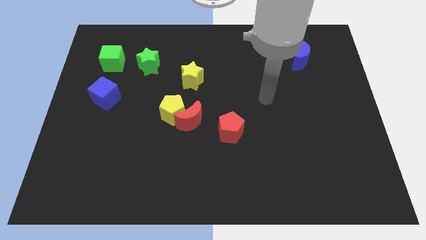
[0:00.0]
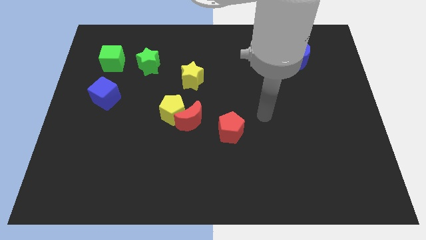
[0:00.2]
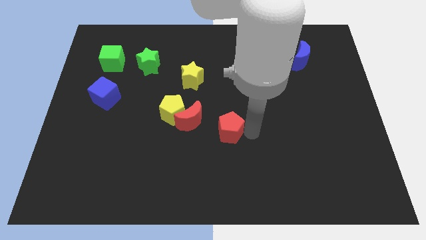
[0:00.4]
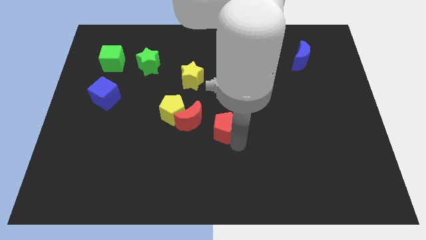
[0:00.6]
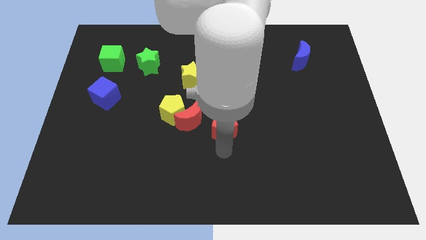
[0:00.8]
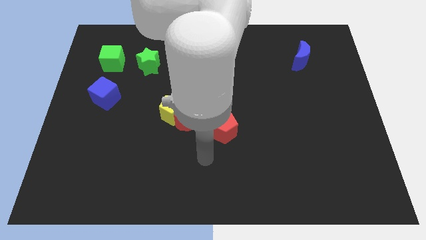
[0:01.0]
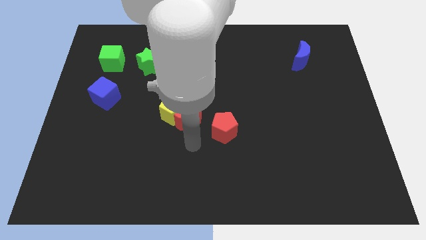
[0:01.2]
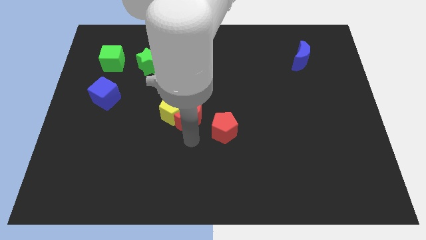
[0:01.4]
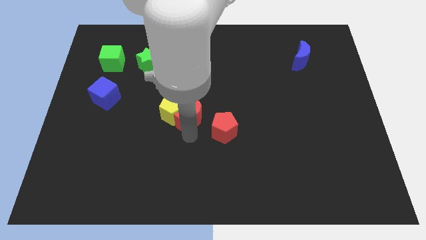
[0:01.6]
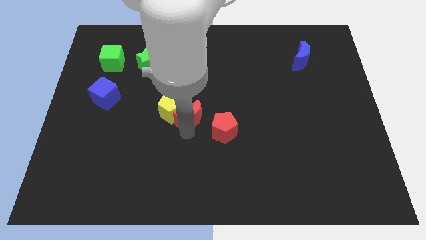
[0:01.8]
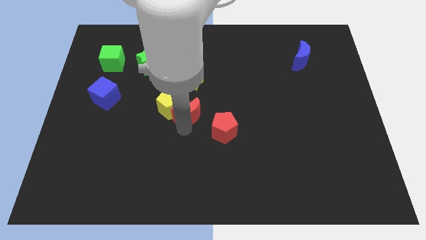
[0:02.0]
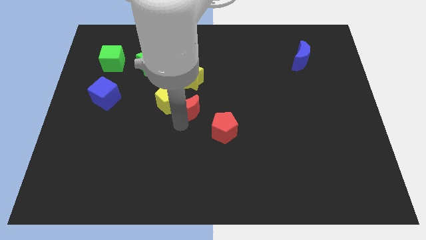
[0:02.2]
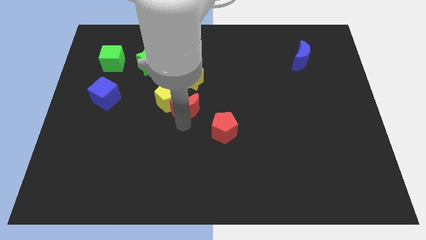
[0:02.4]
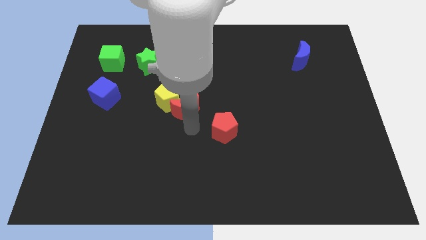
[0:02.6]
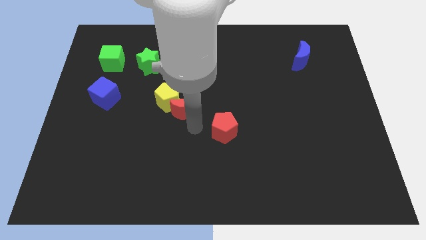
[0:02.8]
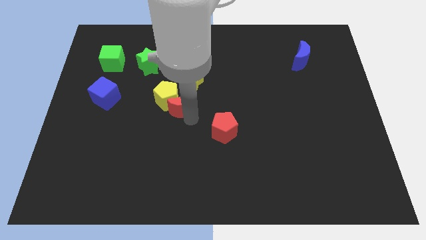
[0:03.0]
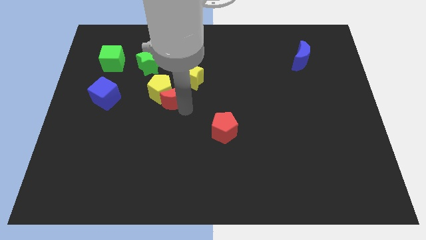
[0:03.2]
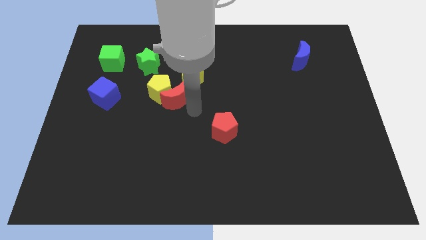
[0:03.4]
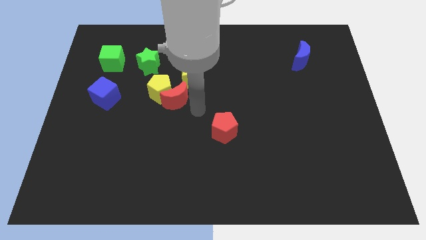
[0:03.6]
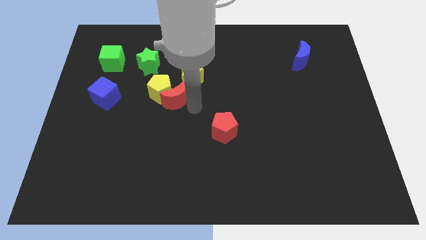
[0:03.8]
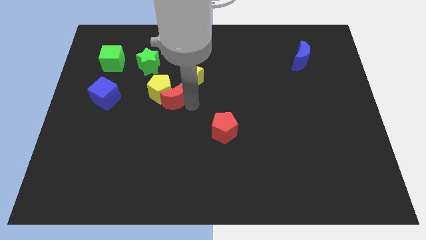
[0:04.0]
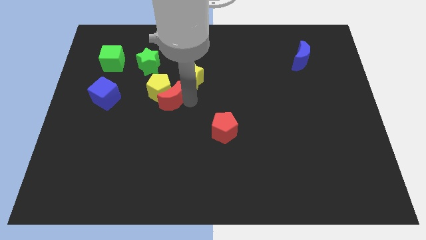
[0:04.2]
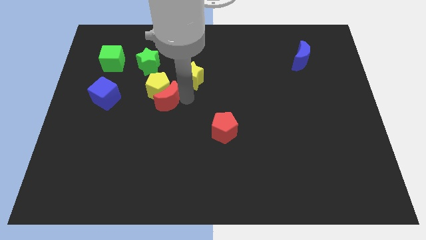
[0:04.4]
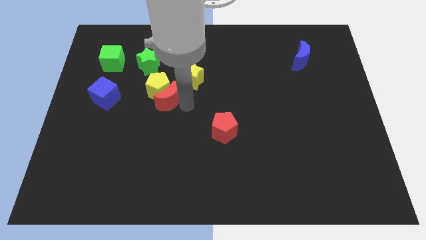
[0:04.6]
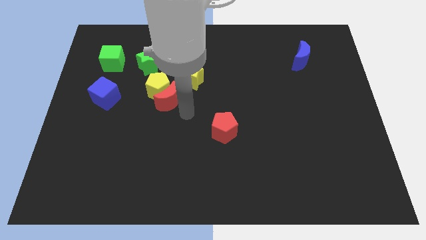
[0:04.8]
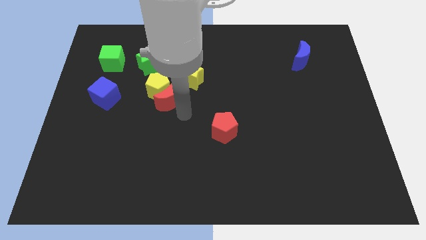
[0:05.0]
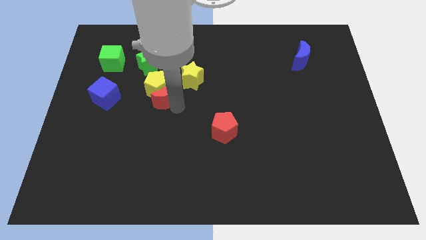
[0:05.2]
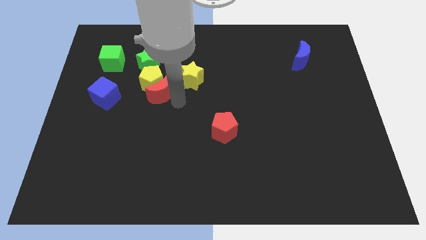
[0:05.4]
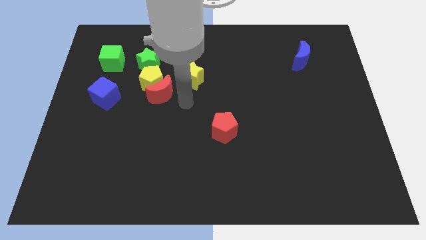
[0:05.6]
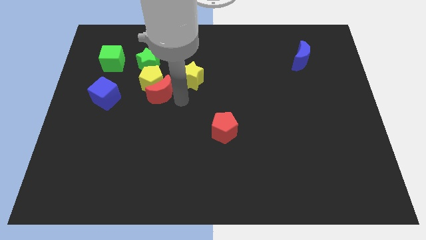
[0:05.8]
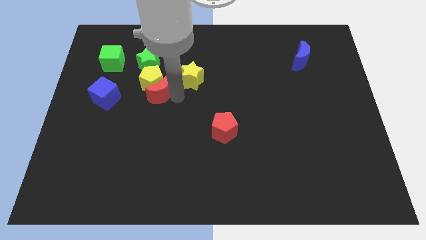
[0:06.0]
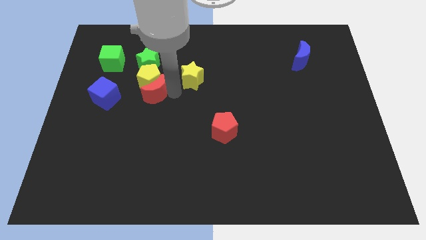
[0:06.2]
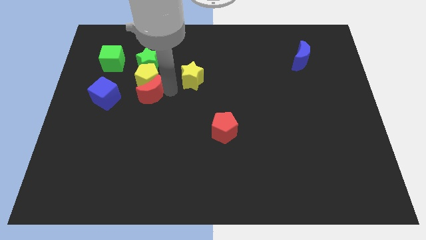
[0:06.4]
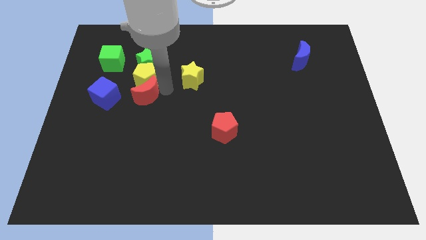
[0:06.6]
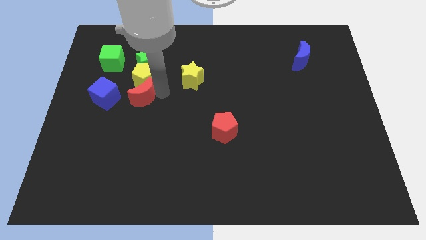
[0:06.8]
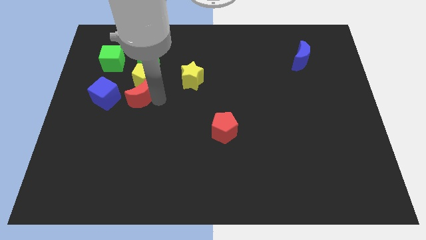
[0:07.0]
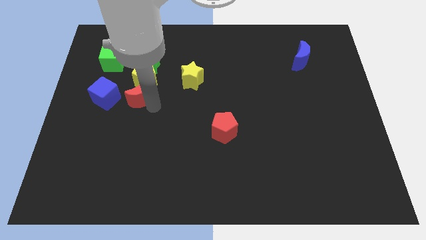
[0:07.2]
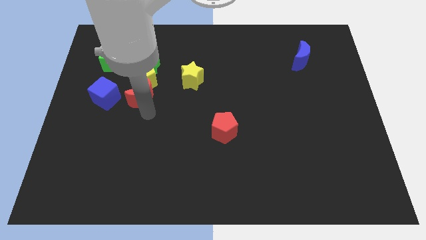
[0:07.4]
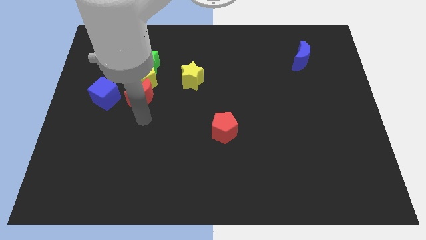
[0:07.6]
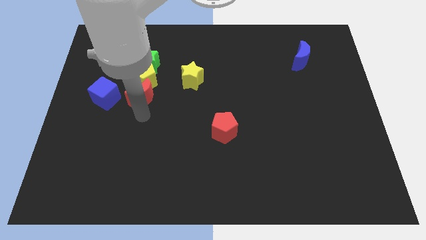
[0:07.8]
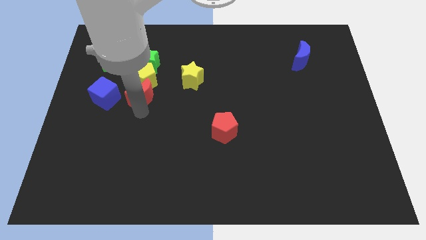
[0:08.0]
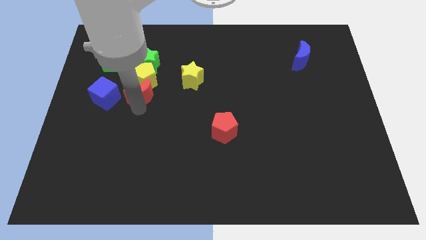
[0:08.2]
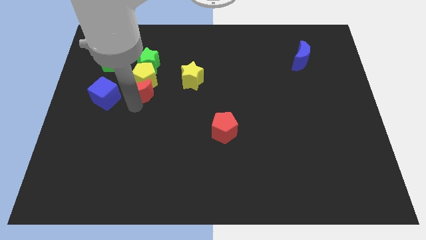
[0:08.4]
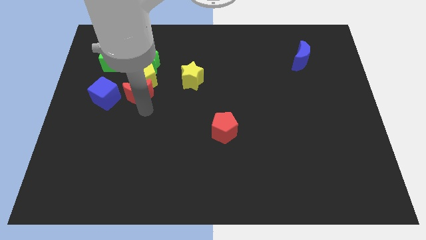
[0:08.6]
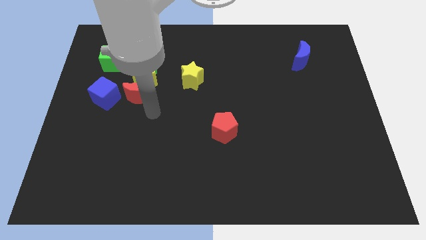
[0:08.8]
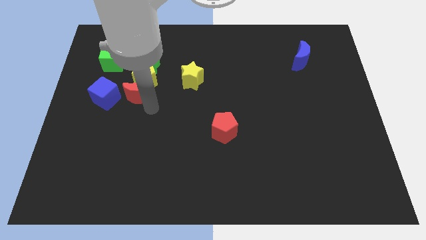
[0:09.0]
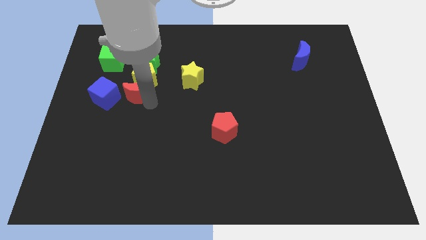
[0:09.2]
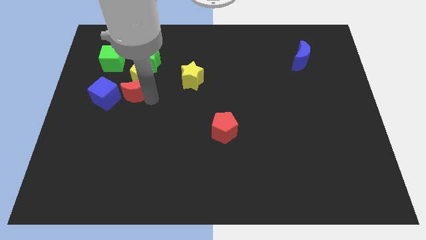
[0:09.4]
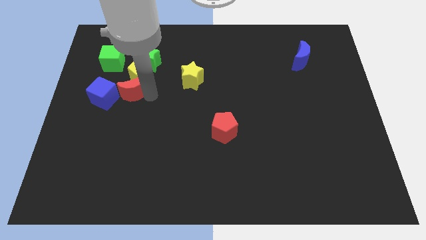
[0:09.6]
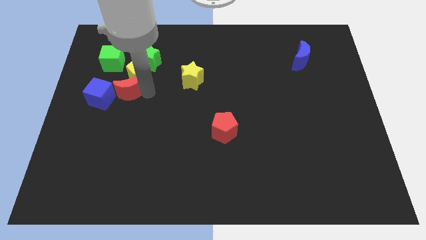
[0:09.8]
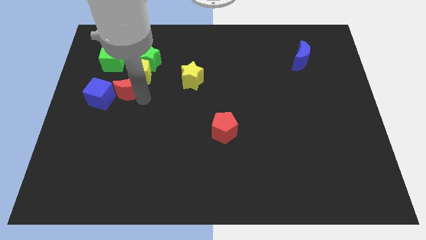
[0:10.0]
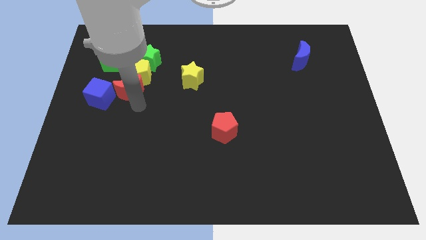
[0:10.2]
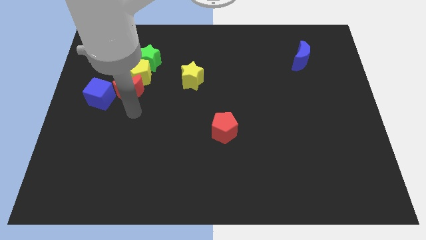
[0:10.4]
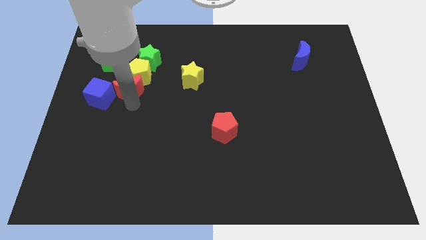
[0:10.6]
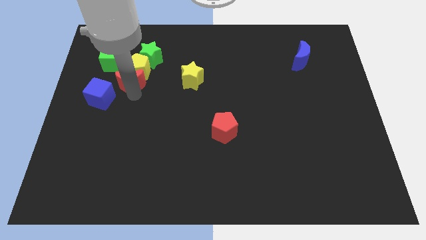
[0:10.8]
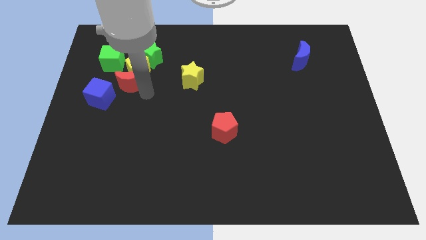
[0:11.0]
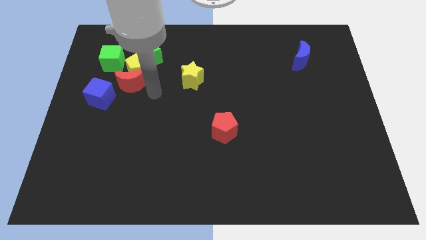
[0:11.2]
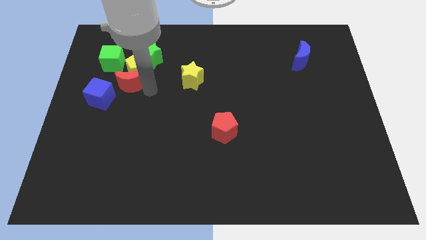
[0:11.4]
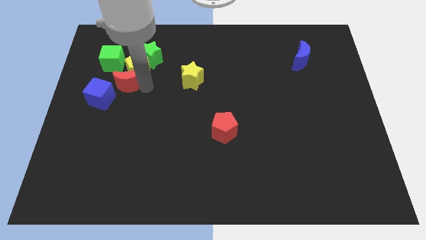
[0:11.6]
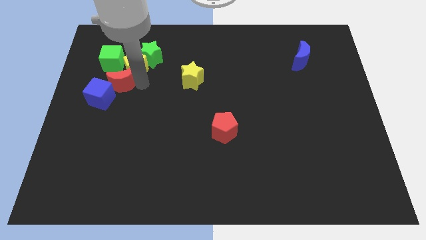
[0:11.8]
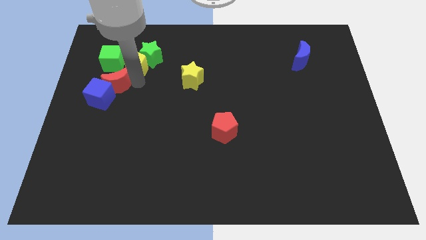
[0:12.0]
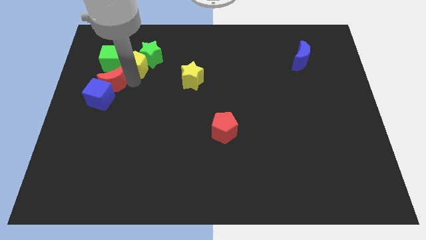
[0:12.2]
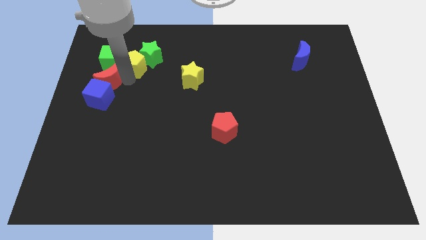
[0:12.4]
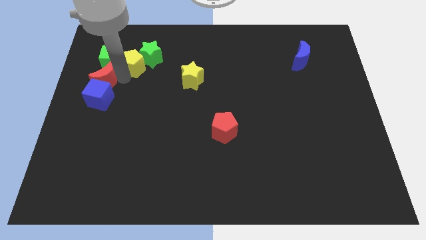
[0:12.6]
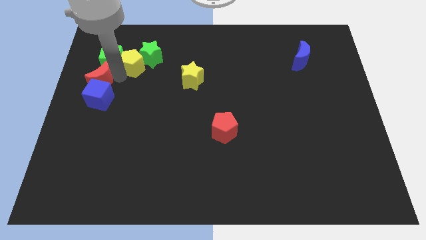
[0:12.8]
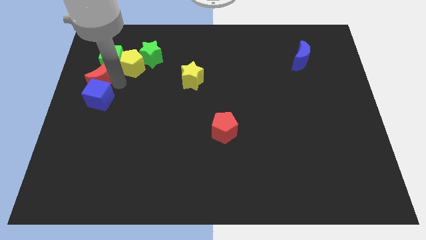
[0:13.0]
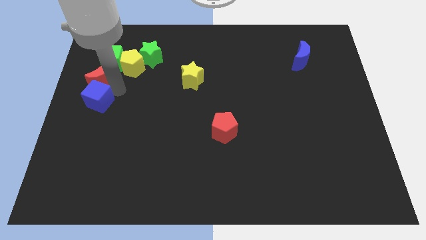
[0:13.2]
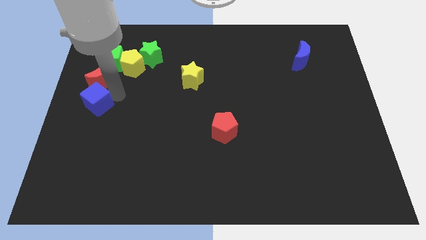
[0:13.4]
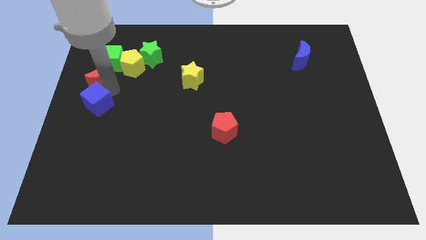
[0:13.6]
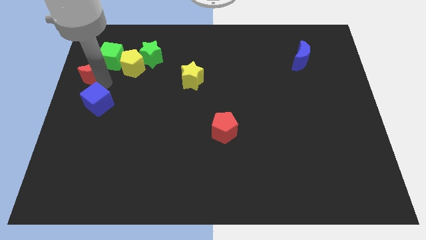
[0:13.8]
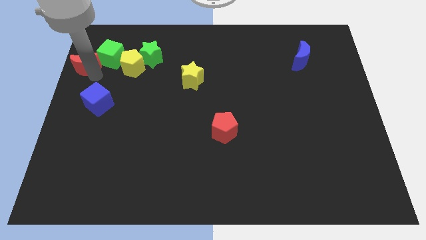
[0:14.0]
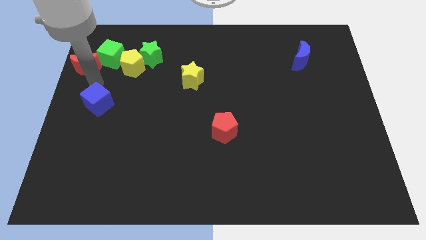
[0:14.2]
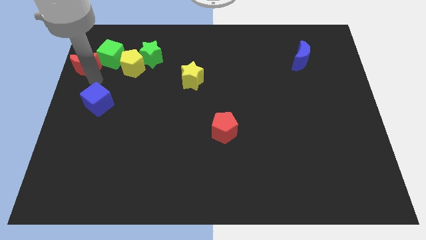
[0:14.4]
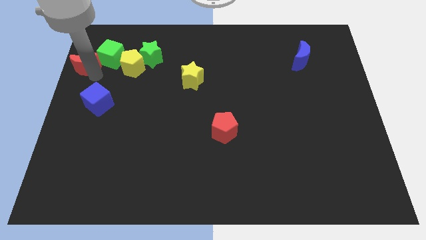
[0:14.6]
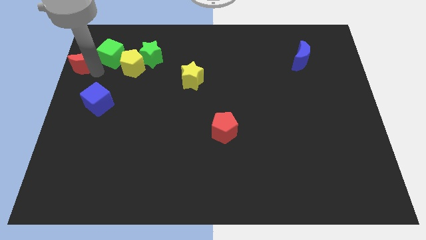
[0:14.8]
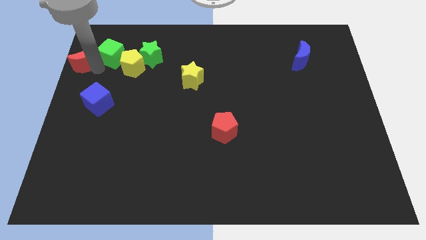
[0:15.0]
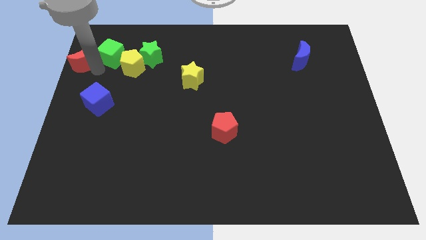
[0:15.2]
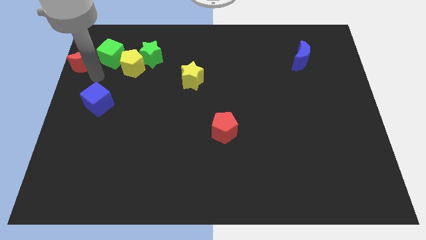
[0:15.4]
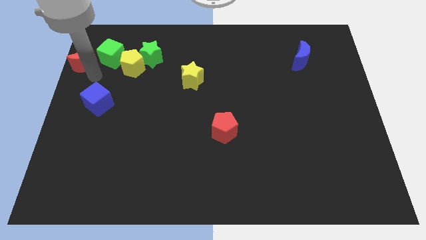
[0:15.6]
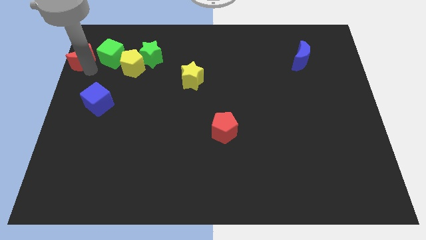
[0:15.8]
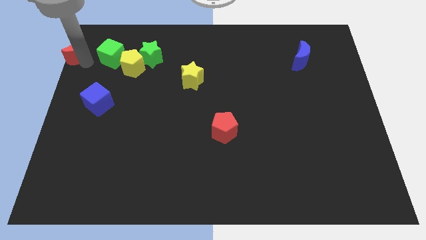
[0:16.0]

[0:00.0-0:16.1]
move the red moon to the top left
